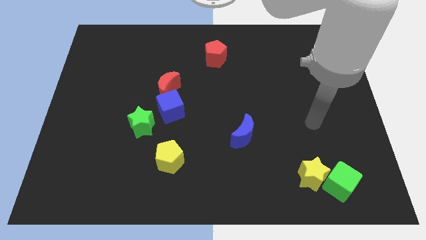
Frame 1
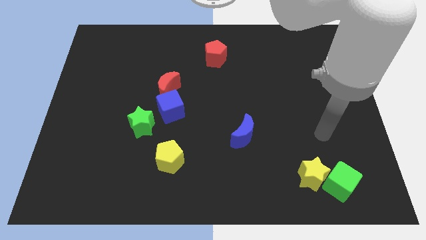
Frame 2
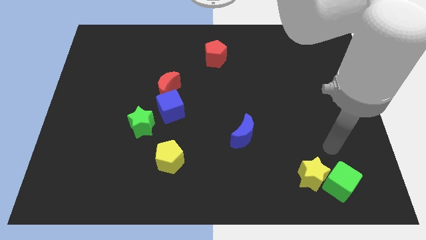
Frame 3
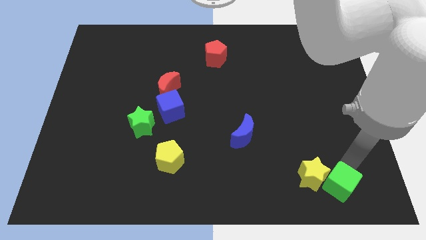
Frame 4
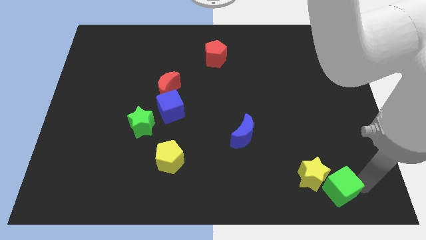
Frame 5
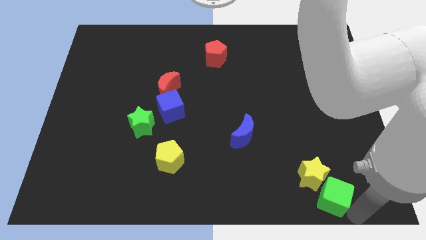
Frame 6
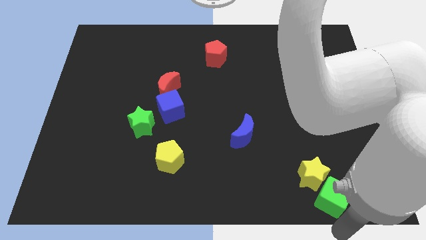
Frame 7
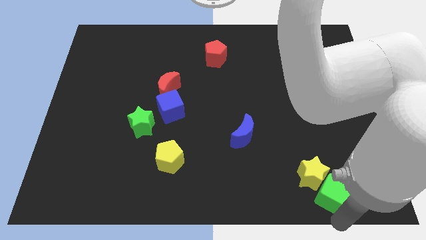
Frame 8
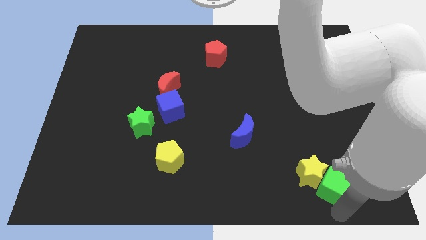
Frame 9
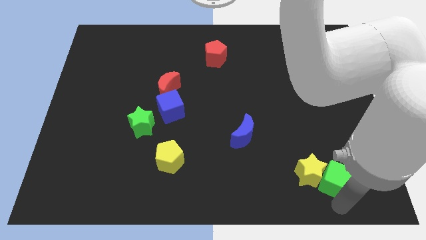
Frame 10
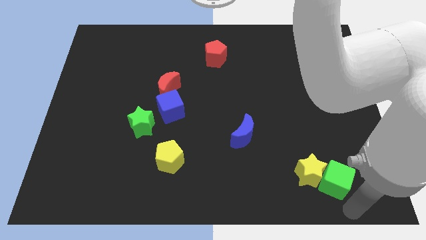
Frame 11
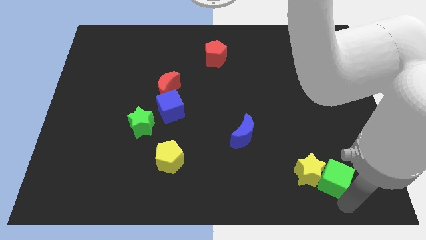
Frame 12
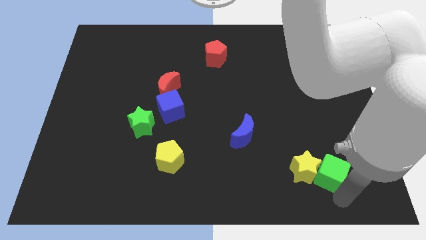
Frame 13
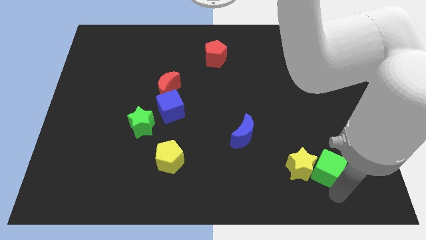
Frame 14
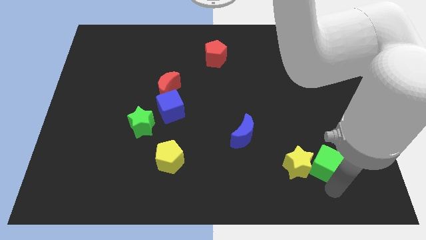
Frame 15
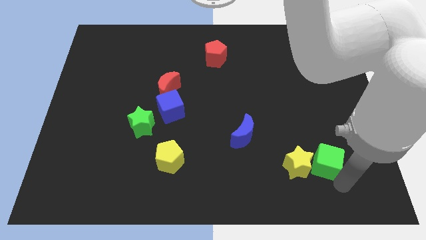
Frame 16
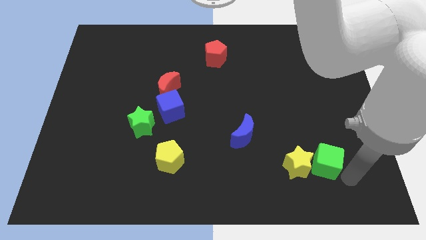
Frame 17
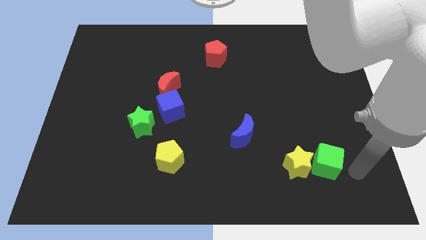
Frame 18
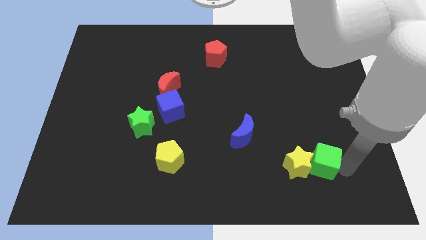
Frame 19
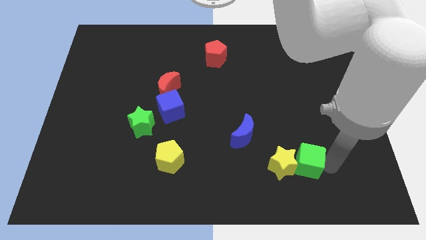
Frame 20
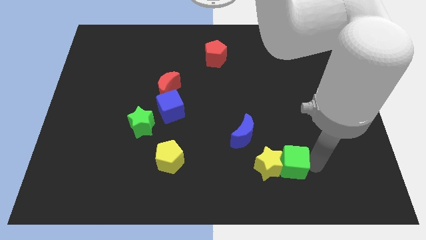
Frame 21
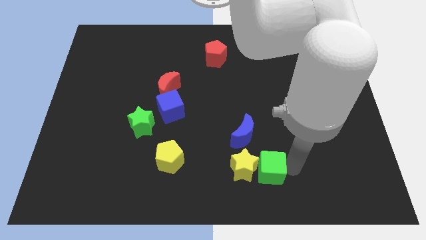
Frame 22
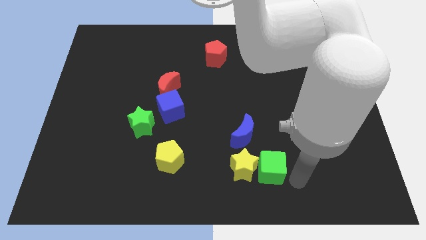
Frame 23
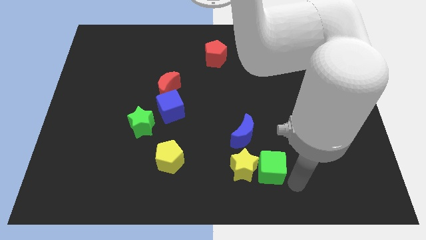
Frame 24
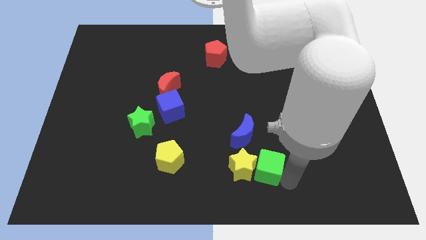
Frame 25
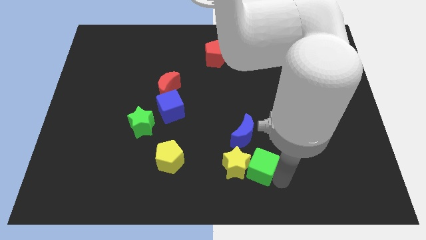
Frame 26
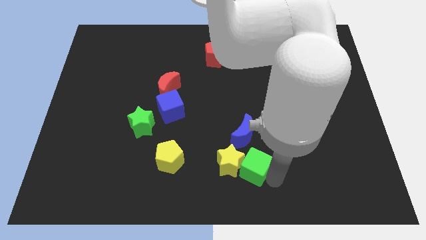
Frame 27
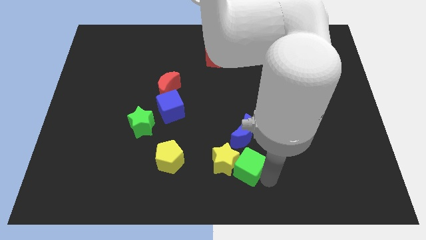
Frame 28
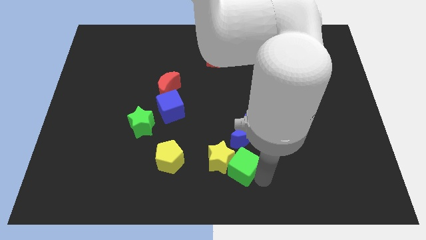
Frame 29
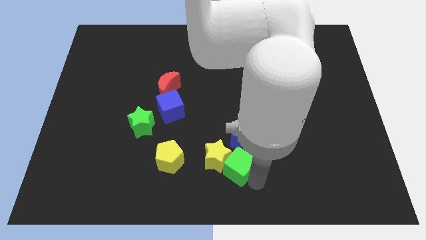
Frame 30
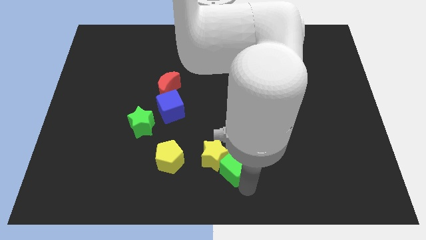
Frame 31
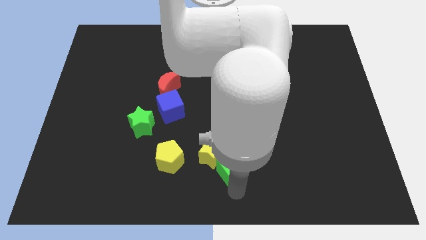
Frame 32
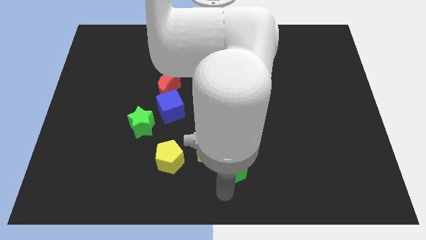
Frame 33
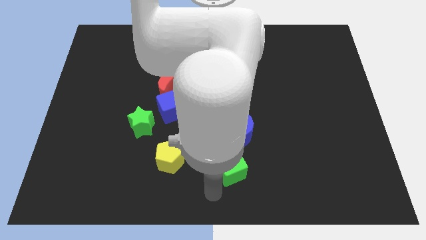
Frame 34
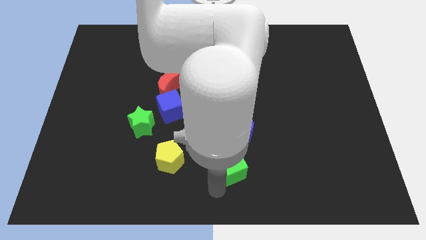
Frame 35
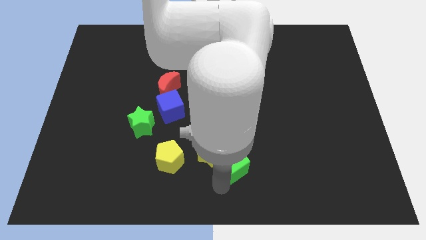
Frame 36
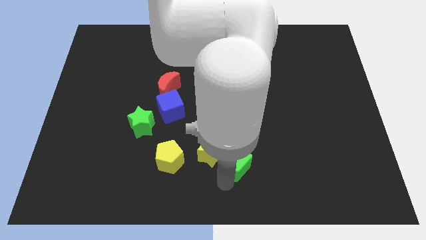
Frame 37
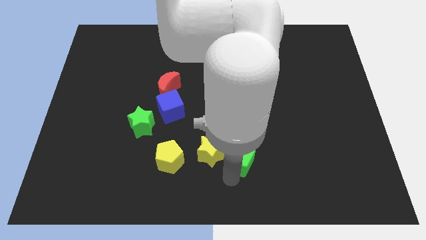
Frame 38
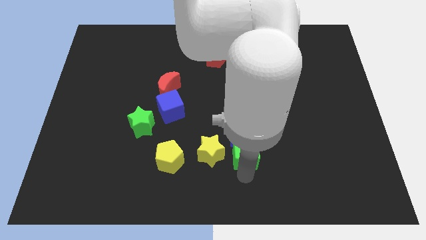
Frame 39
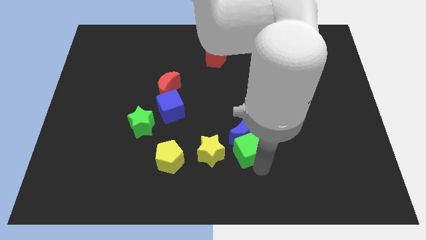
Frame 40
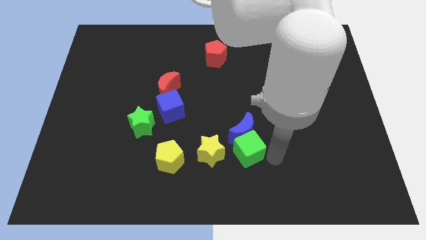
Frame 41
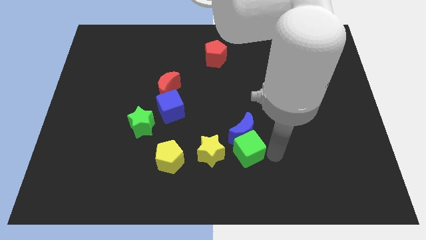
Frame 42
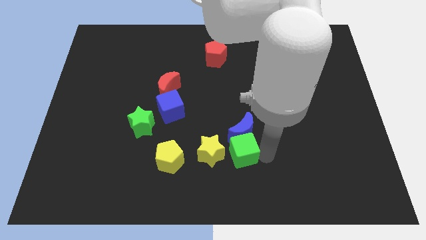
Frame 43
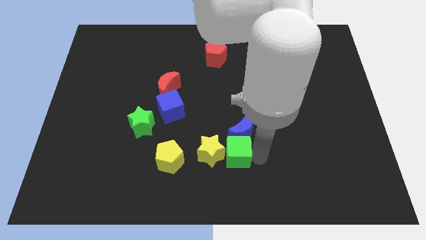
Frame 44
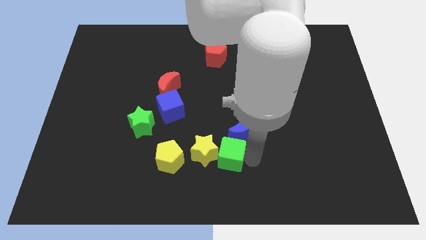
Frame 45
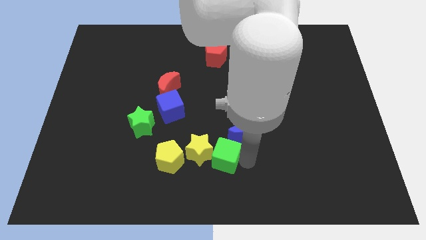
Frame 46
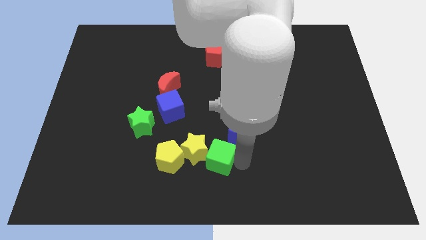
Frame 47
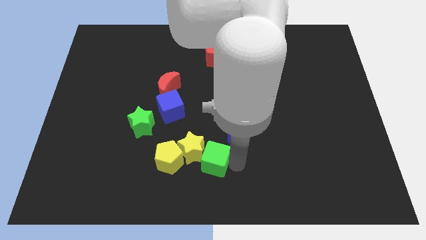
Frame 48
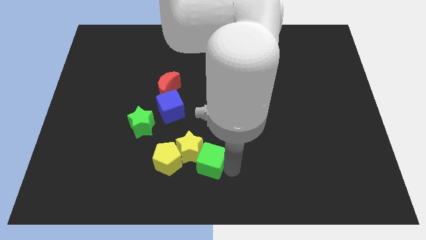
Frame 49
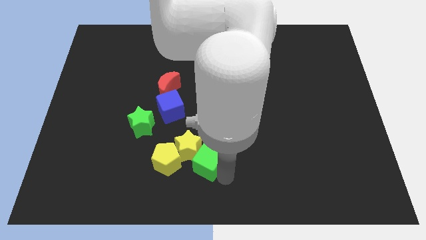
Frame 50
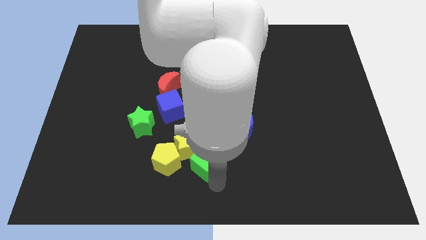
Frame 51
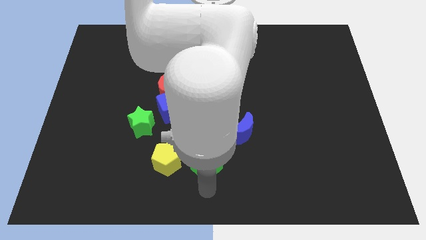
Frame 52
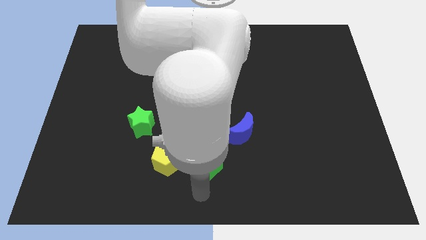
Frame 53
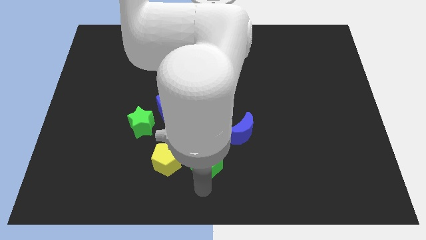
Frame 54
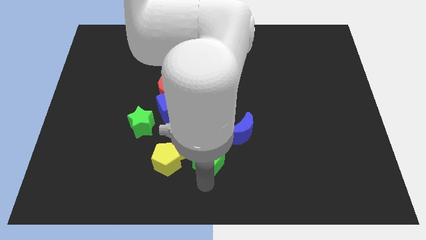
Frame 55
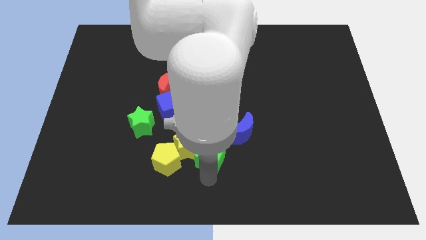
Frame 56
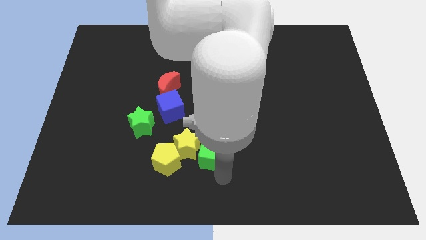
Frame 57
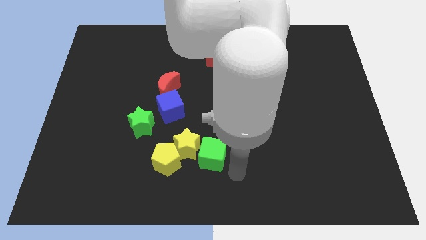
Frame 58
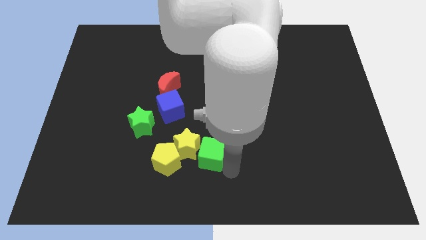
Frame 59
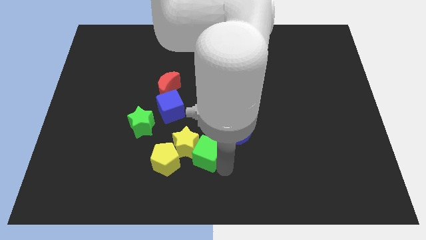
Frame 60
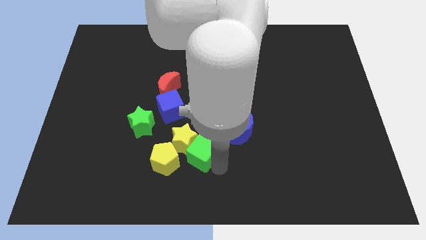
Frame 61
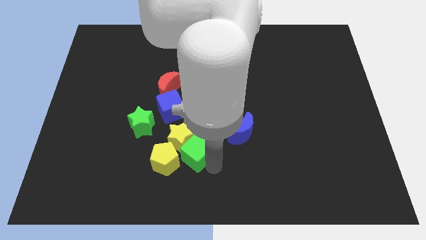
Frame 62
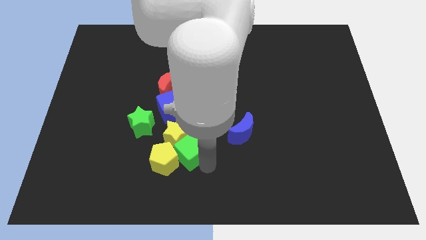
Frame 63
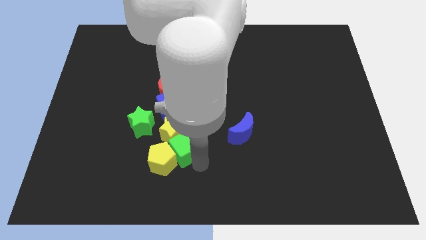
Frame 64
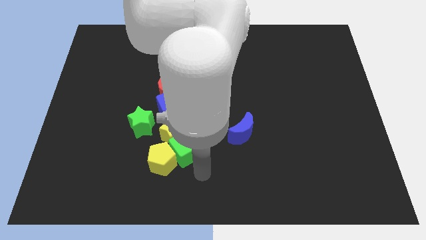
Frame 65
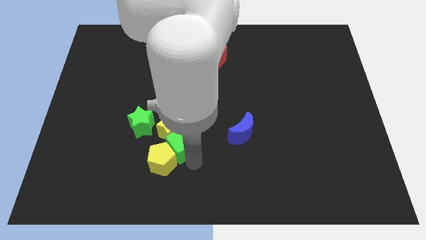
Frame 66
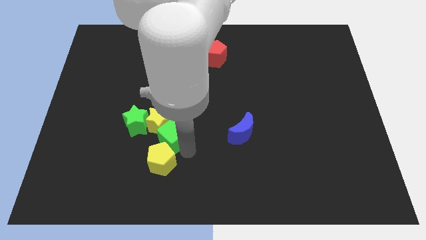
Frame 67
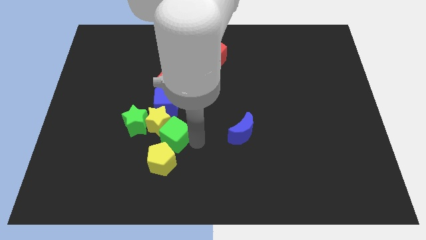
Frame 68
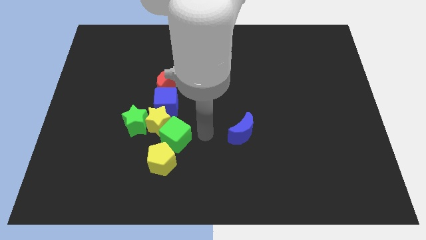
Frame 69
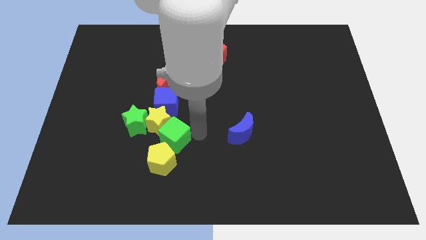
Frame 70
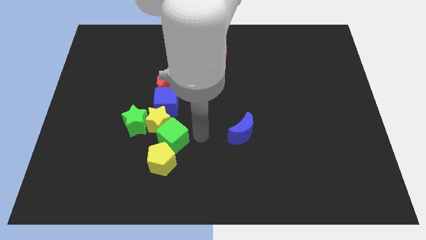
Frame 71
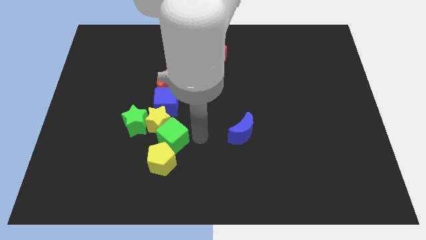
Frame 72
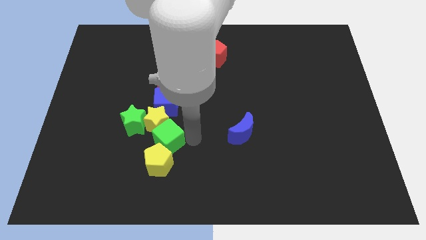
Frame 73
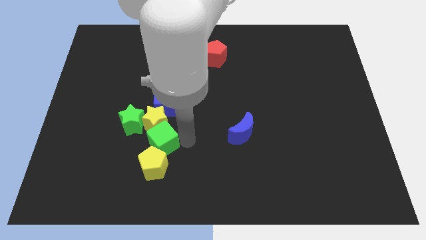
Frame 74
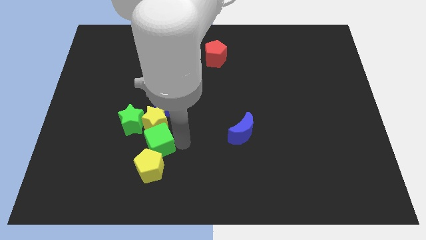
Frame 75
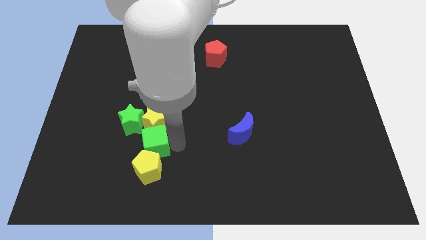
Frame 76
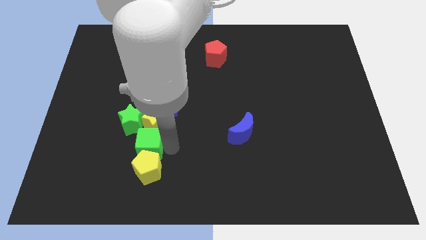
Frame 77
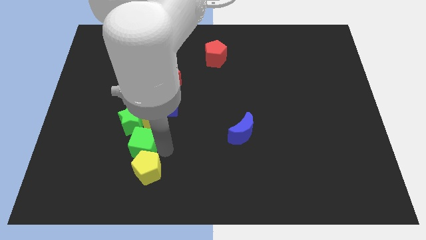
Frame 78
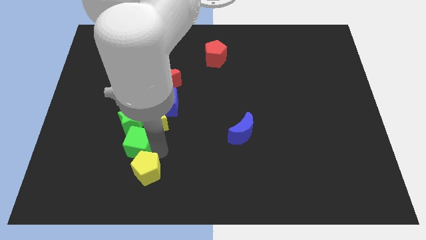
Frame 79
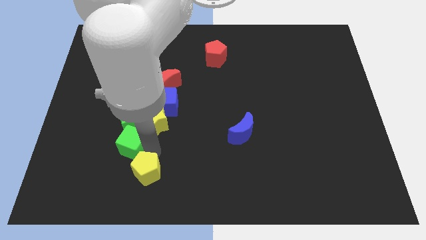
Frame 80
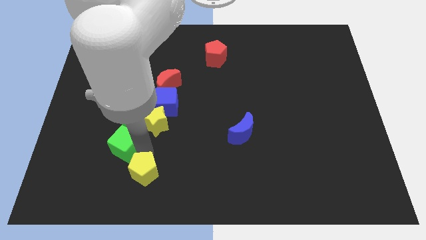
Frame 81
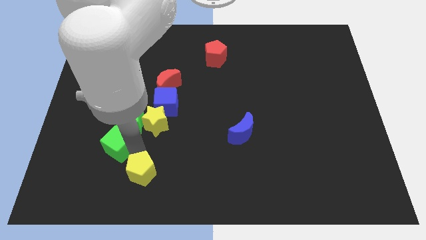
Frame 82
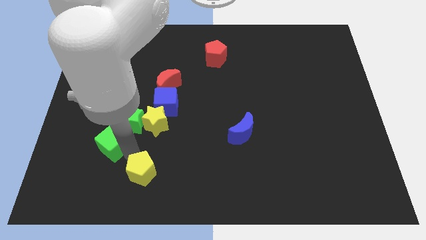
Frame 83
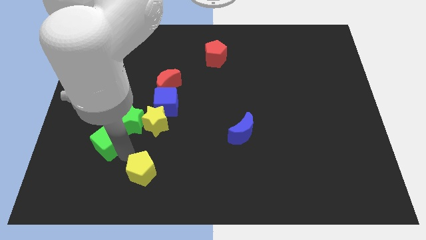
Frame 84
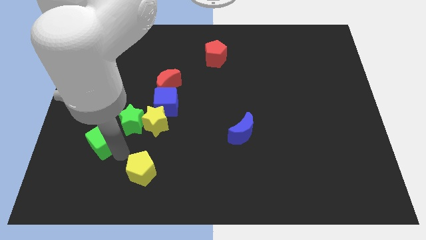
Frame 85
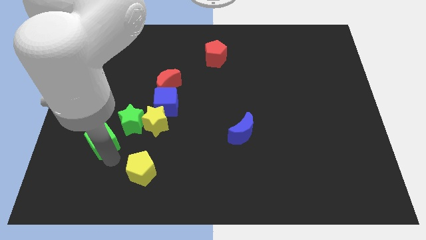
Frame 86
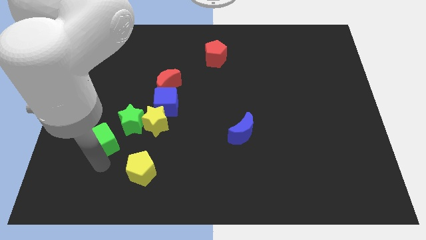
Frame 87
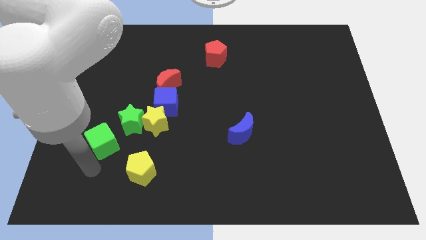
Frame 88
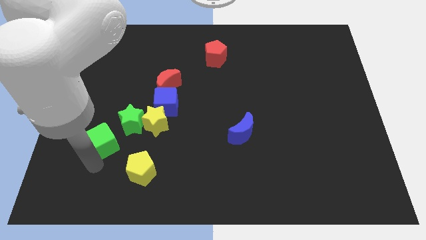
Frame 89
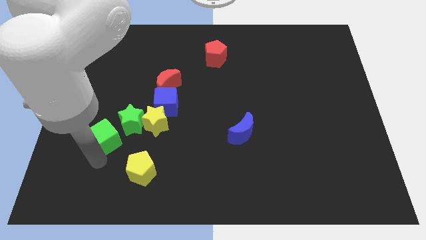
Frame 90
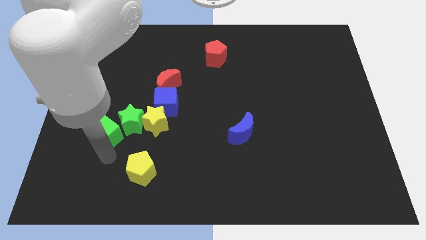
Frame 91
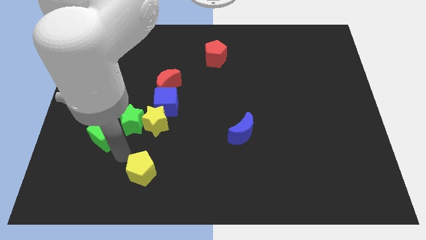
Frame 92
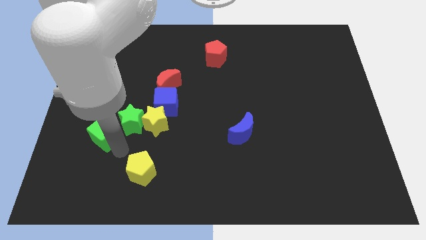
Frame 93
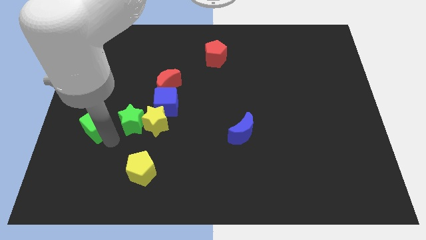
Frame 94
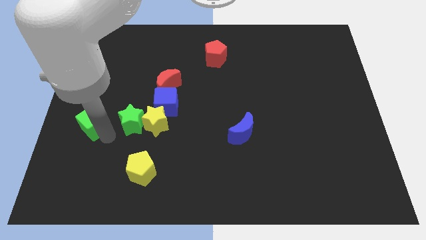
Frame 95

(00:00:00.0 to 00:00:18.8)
slide the green cube to the center left
